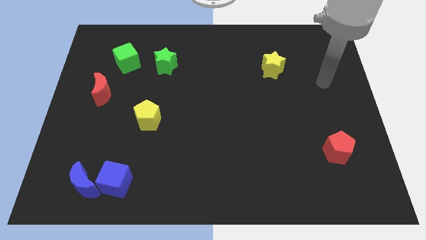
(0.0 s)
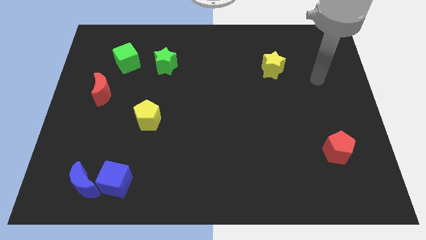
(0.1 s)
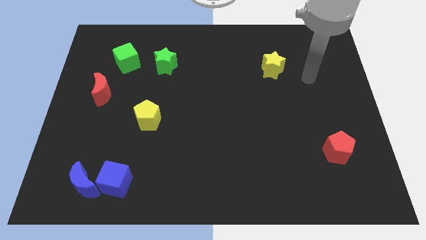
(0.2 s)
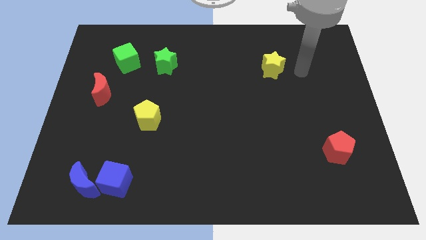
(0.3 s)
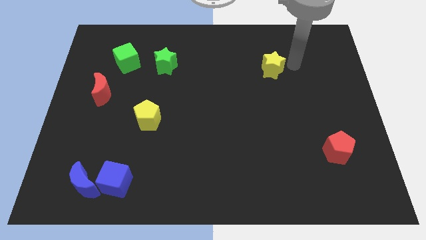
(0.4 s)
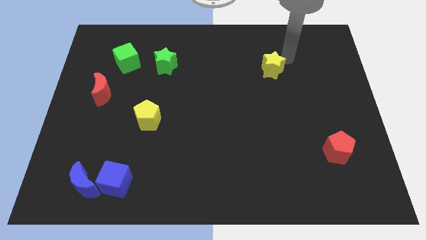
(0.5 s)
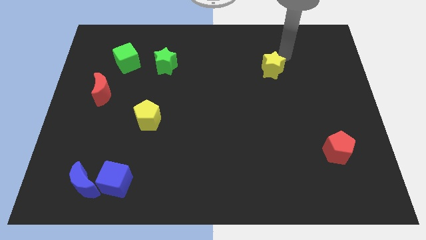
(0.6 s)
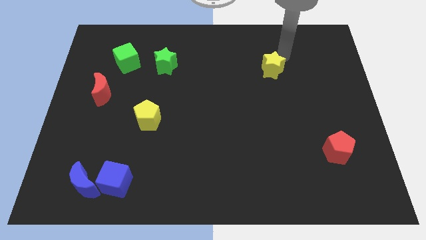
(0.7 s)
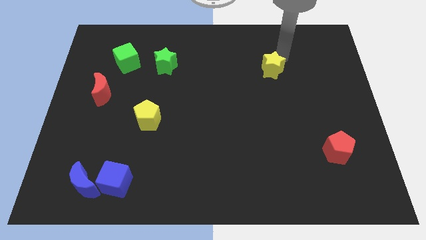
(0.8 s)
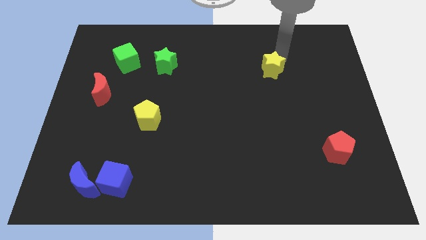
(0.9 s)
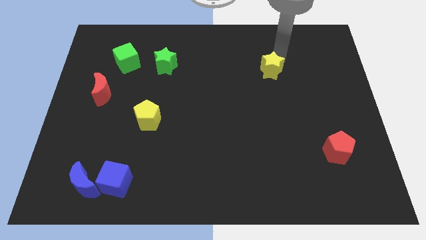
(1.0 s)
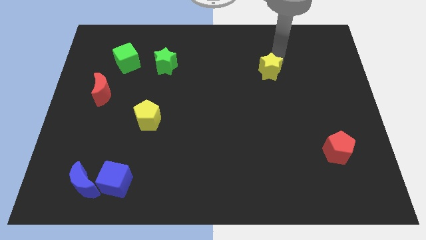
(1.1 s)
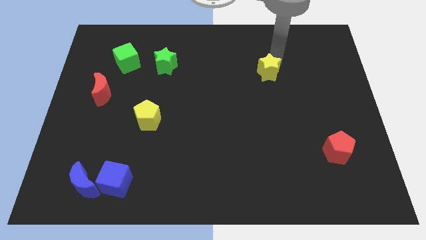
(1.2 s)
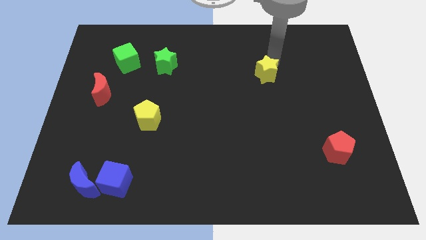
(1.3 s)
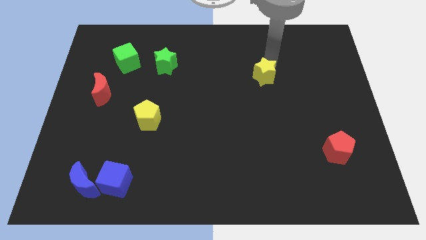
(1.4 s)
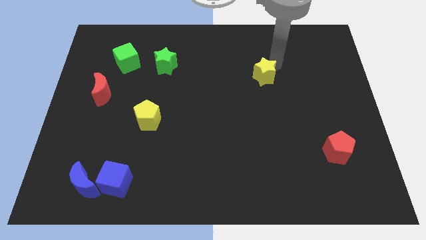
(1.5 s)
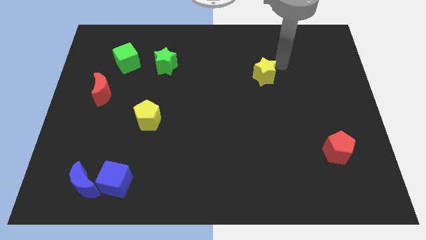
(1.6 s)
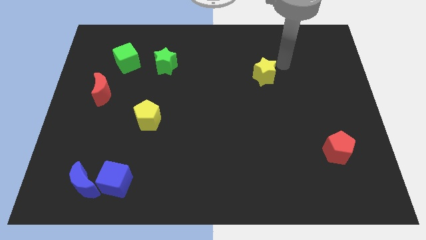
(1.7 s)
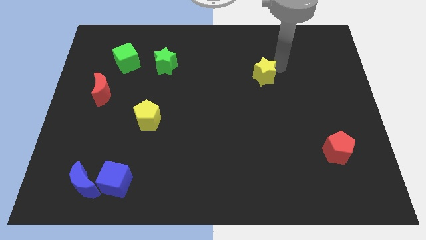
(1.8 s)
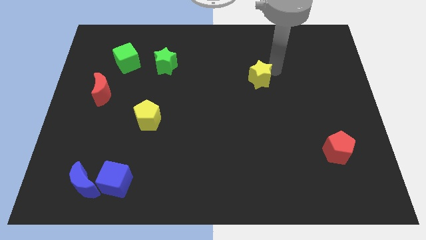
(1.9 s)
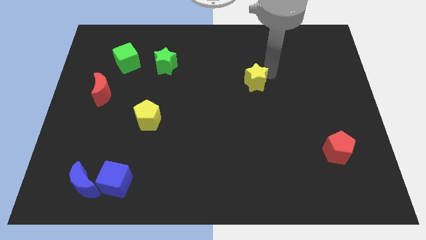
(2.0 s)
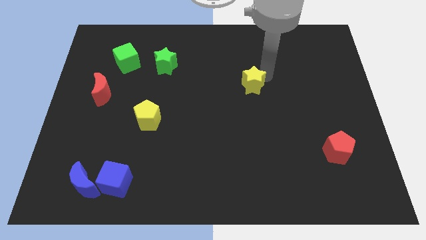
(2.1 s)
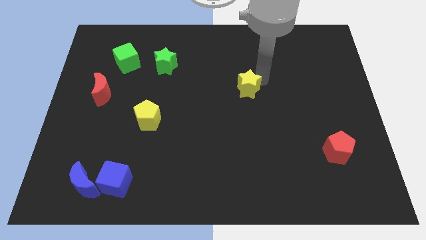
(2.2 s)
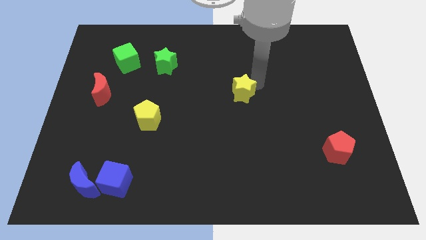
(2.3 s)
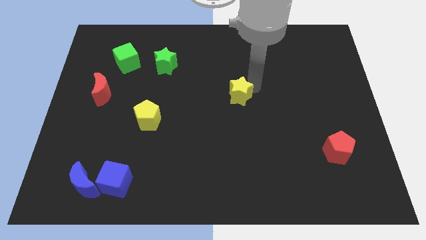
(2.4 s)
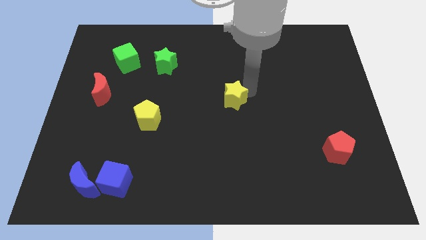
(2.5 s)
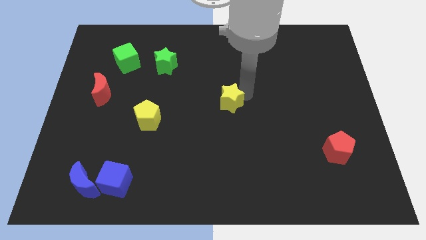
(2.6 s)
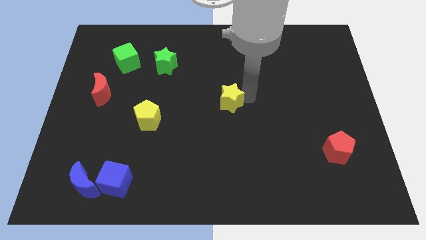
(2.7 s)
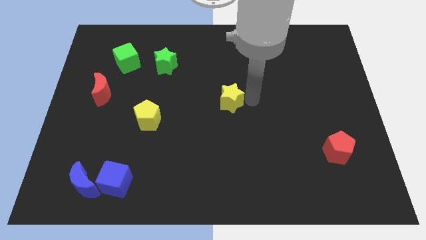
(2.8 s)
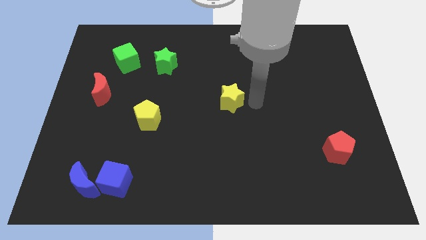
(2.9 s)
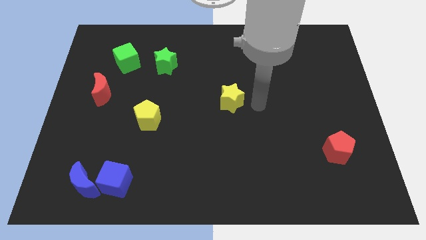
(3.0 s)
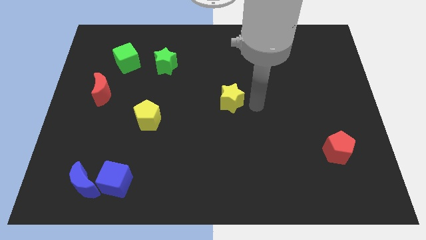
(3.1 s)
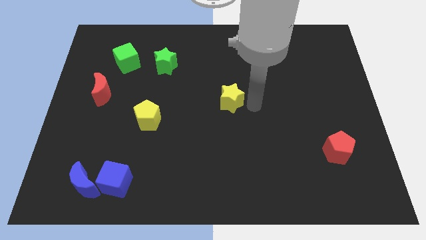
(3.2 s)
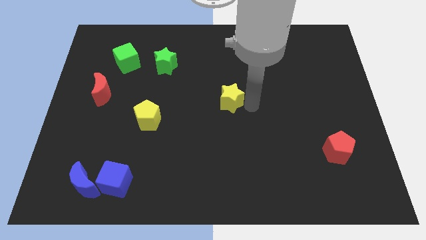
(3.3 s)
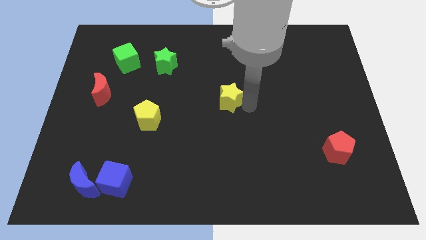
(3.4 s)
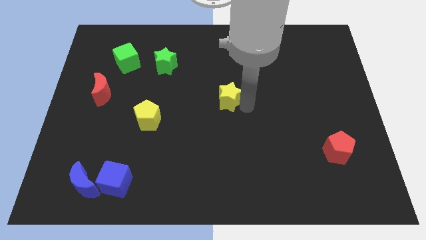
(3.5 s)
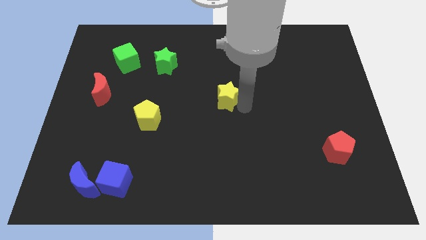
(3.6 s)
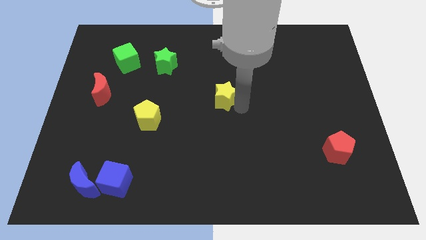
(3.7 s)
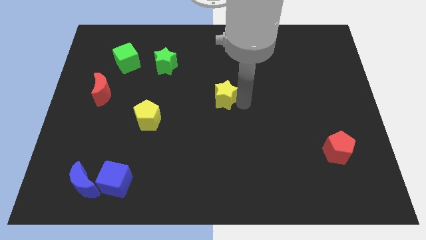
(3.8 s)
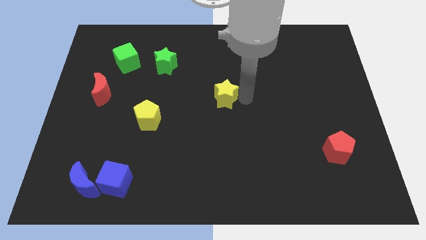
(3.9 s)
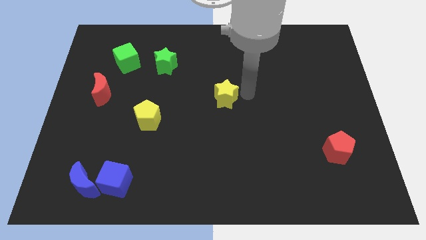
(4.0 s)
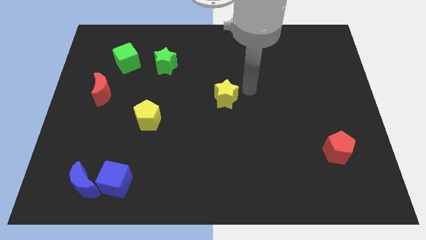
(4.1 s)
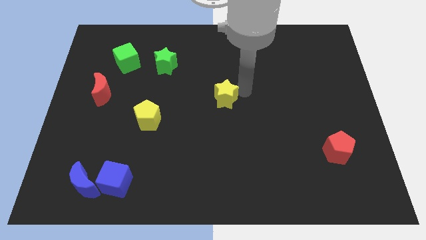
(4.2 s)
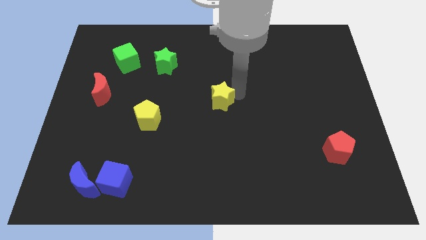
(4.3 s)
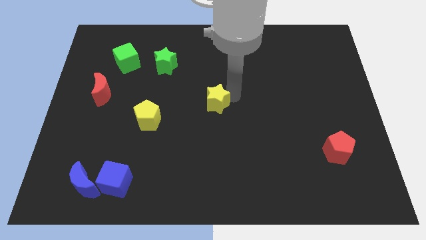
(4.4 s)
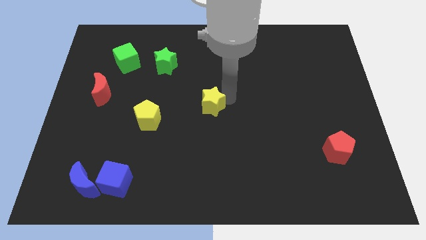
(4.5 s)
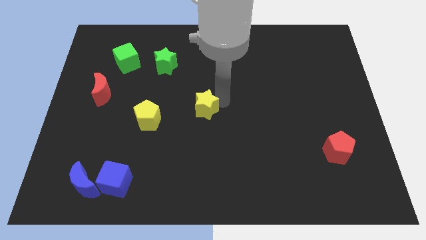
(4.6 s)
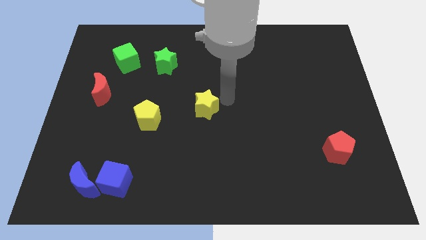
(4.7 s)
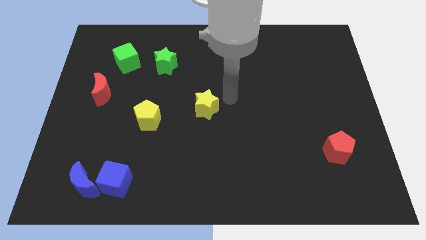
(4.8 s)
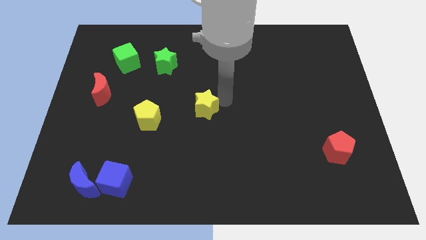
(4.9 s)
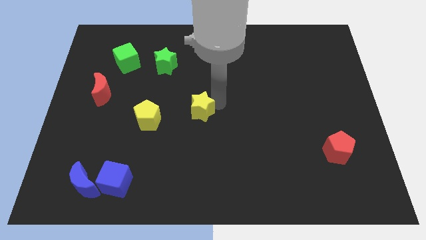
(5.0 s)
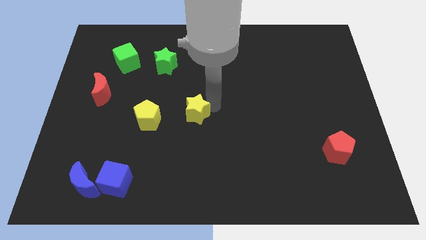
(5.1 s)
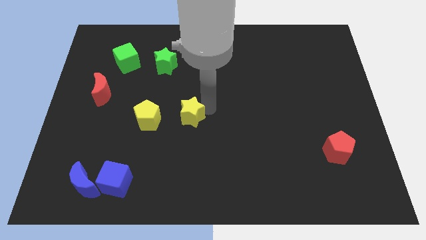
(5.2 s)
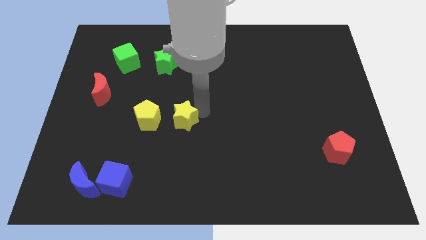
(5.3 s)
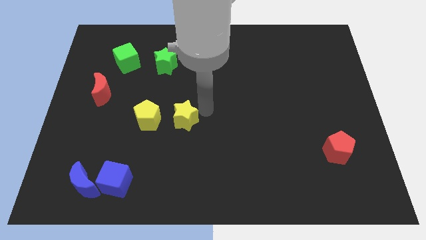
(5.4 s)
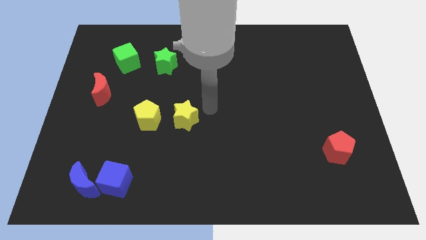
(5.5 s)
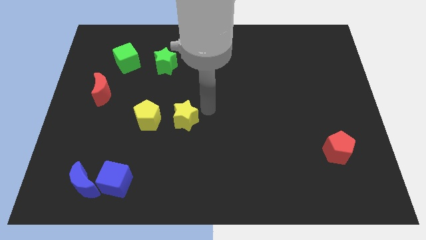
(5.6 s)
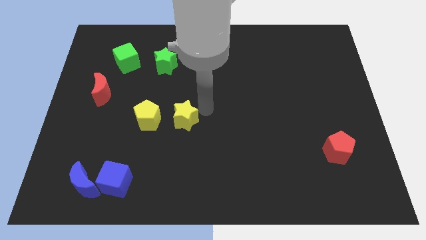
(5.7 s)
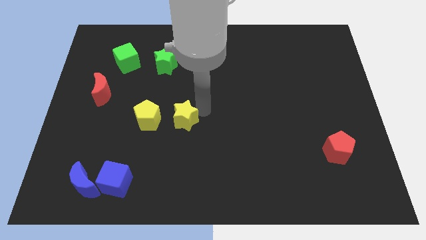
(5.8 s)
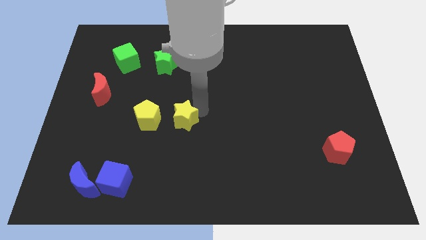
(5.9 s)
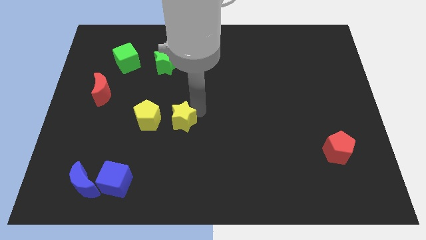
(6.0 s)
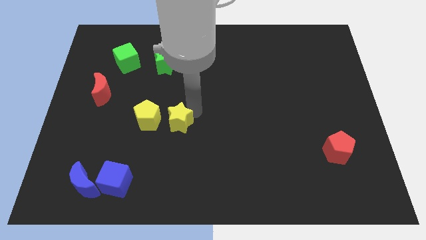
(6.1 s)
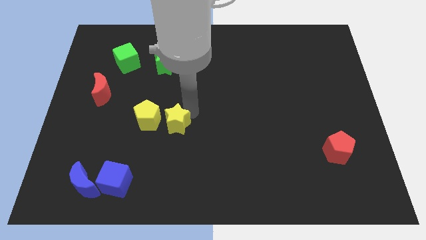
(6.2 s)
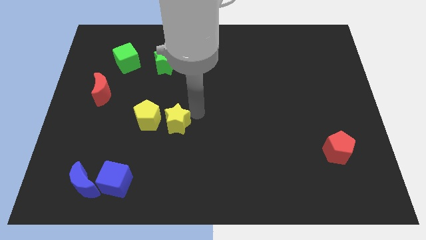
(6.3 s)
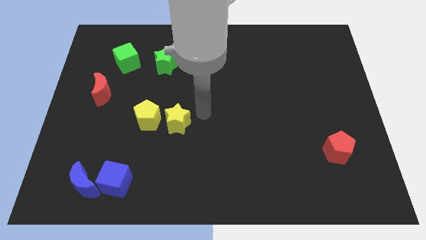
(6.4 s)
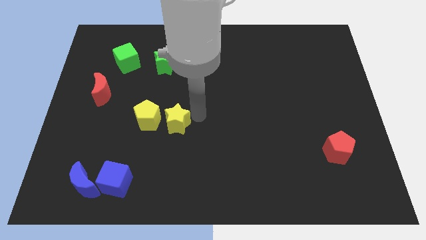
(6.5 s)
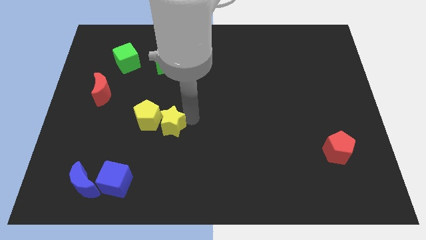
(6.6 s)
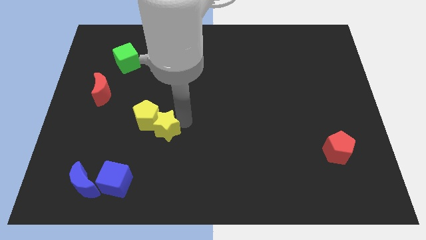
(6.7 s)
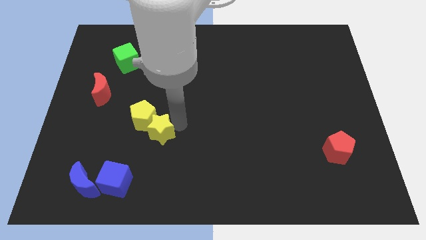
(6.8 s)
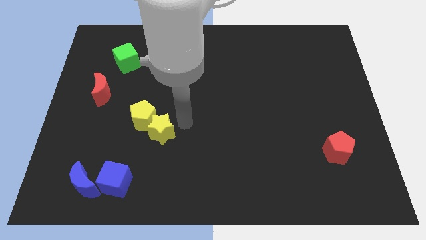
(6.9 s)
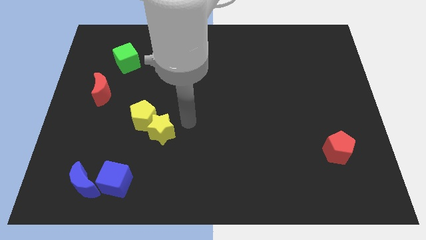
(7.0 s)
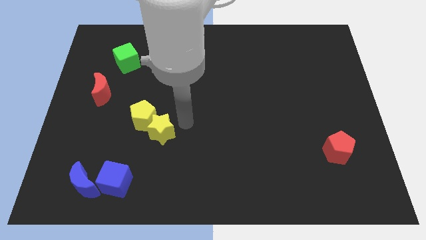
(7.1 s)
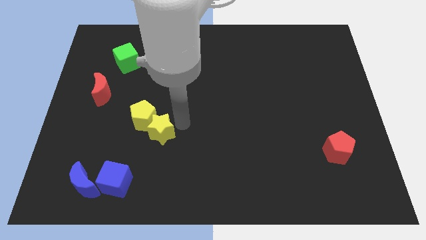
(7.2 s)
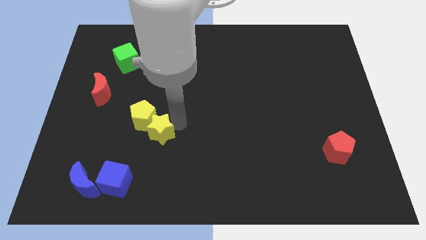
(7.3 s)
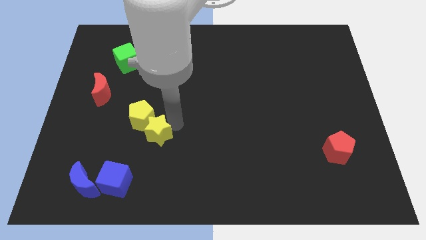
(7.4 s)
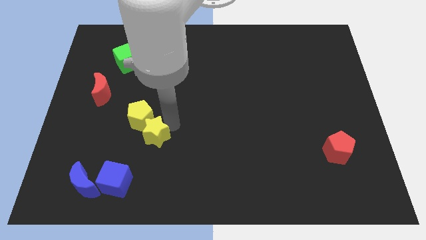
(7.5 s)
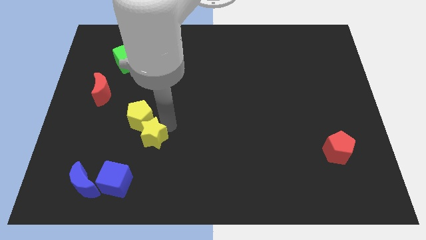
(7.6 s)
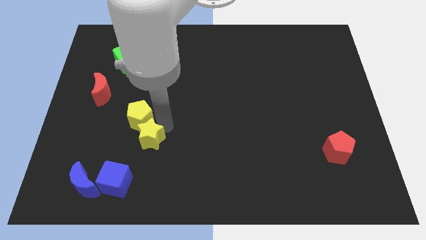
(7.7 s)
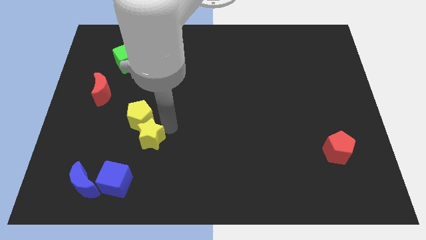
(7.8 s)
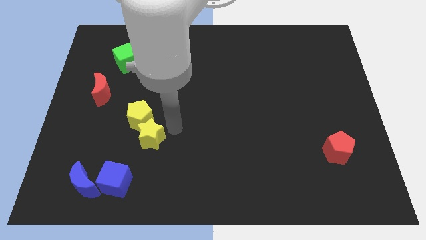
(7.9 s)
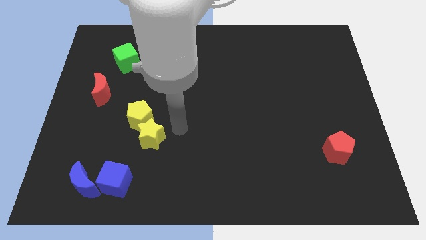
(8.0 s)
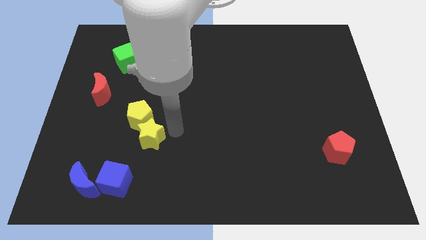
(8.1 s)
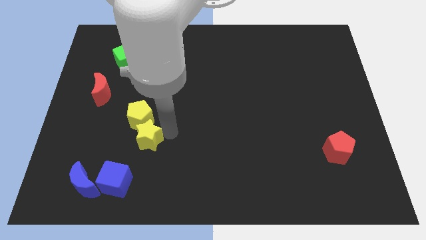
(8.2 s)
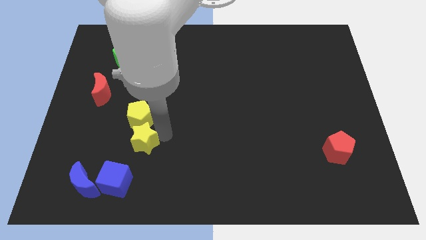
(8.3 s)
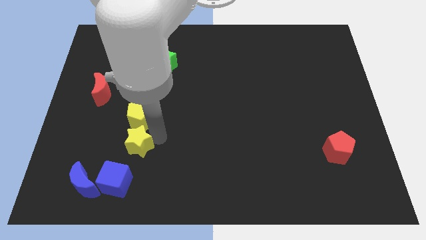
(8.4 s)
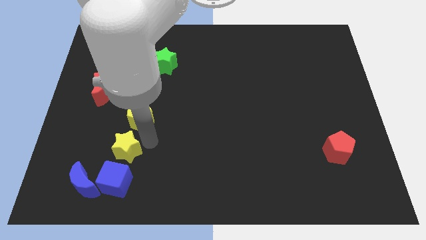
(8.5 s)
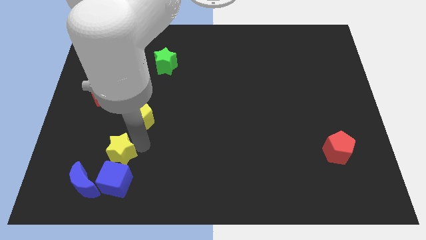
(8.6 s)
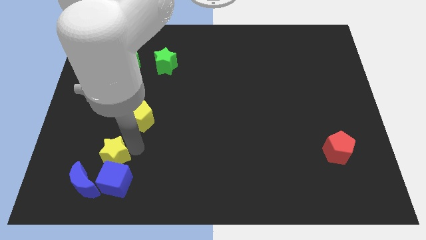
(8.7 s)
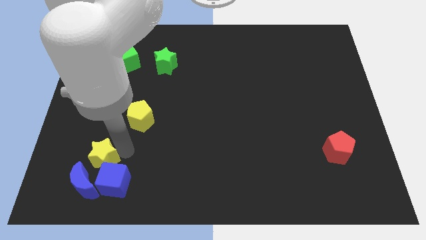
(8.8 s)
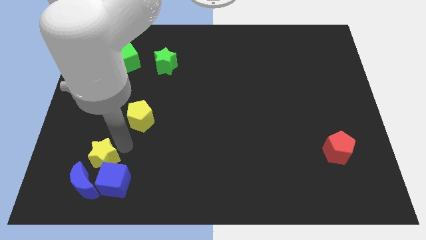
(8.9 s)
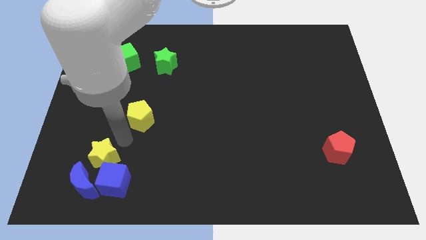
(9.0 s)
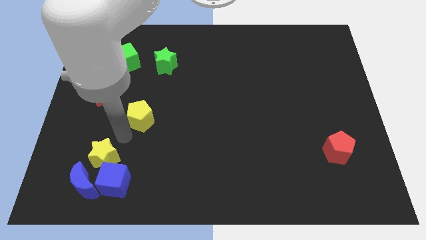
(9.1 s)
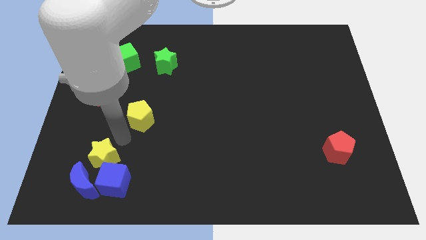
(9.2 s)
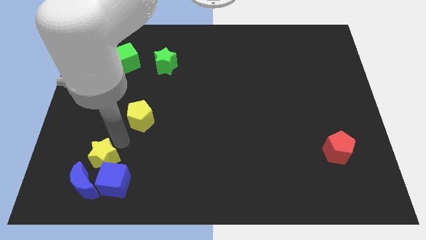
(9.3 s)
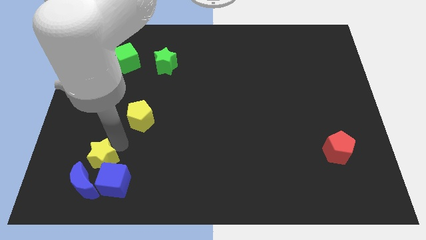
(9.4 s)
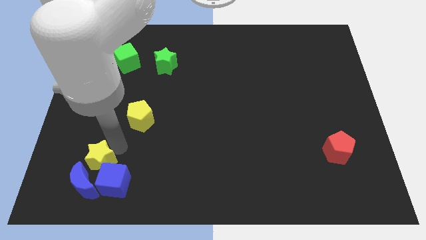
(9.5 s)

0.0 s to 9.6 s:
push the yellow star close to the blue moon
